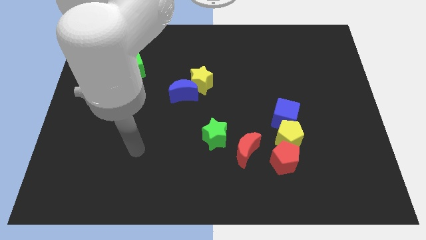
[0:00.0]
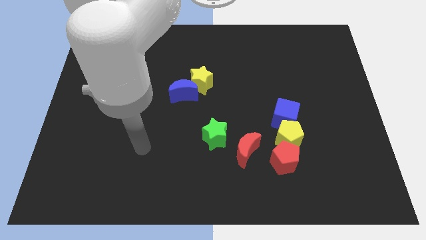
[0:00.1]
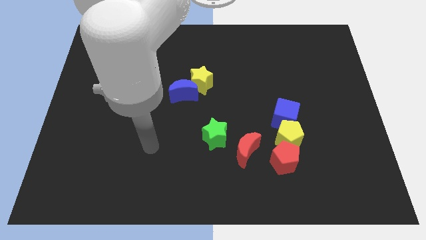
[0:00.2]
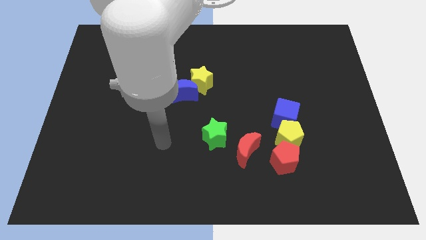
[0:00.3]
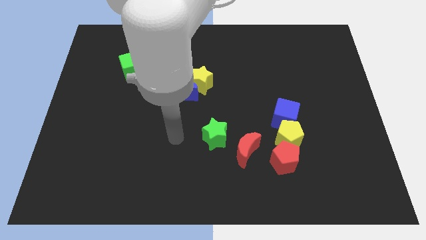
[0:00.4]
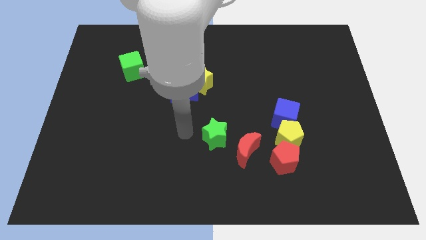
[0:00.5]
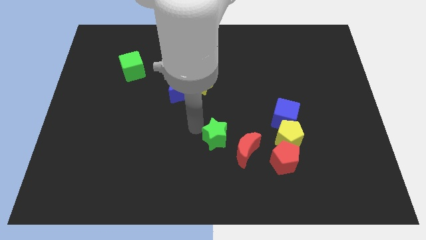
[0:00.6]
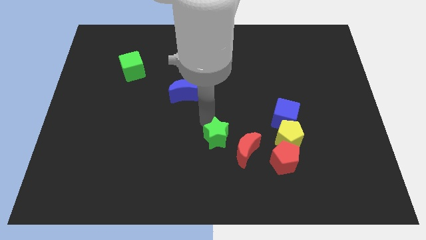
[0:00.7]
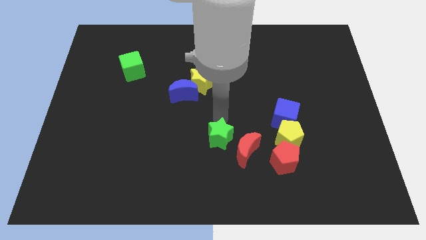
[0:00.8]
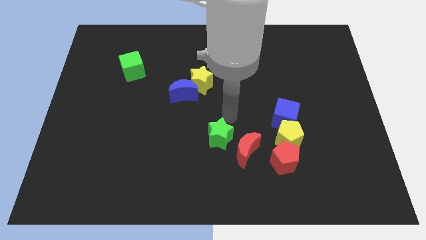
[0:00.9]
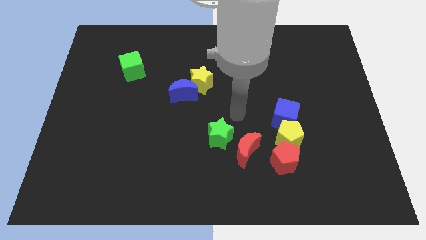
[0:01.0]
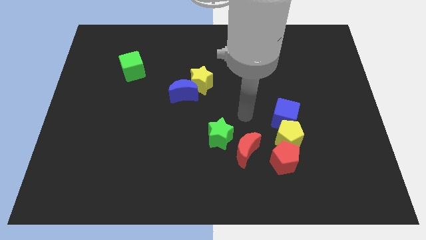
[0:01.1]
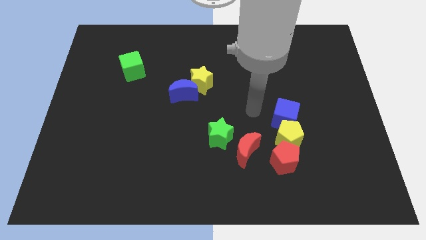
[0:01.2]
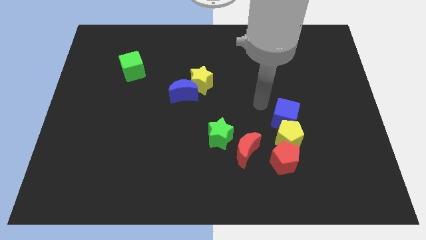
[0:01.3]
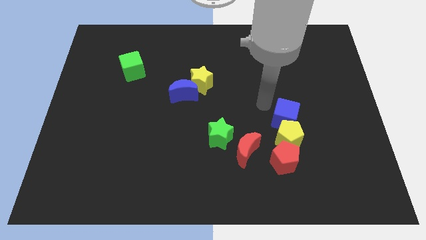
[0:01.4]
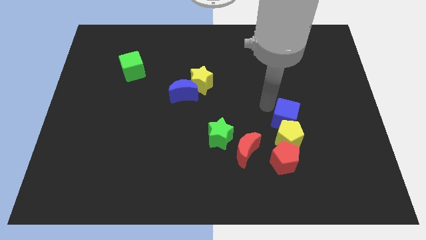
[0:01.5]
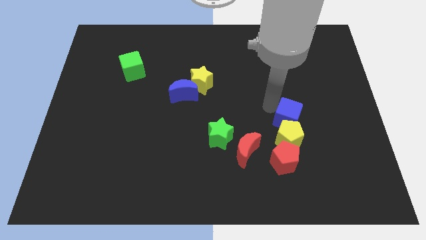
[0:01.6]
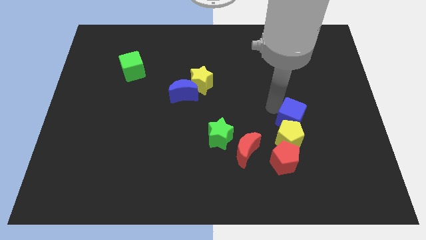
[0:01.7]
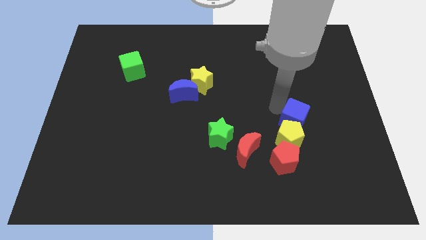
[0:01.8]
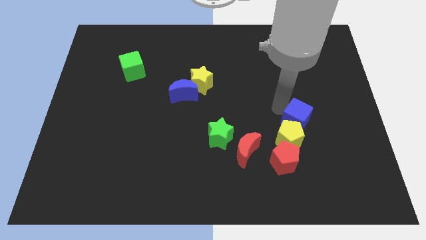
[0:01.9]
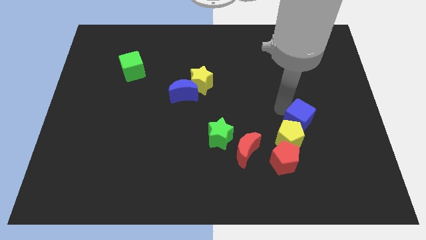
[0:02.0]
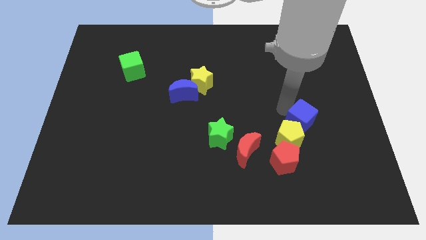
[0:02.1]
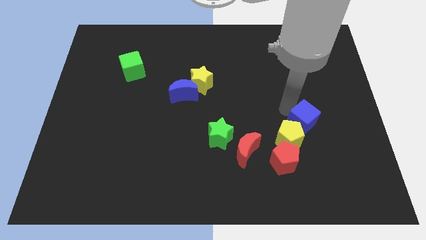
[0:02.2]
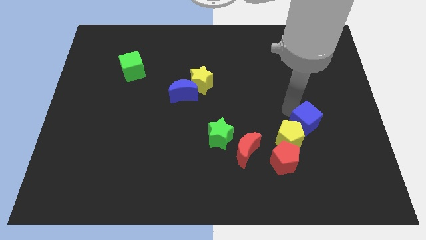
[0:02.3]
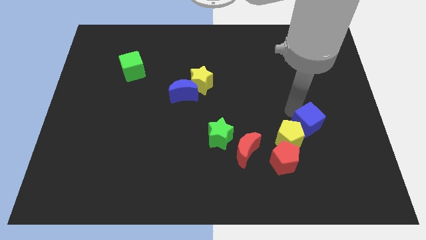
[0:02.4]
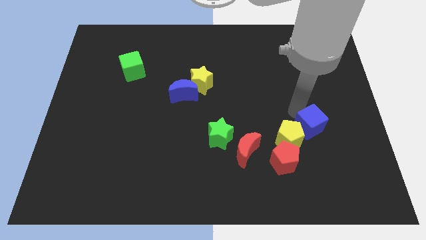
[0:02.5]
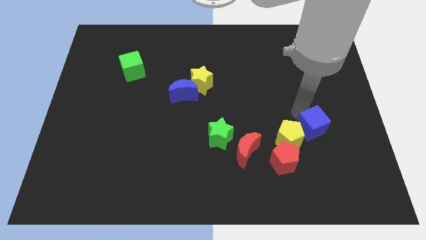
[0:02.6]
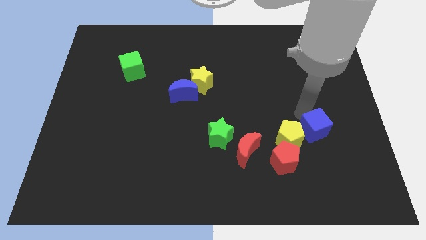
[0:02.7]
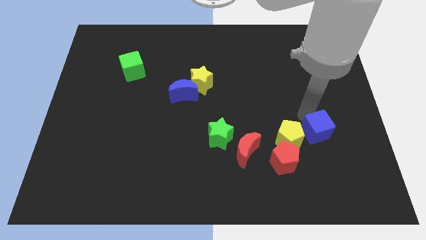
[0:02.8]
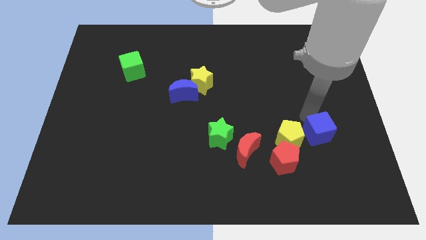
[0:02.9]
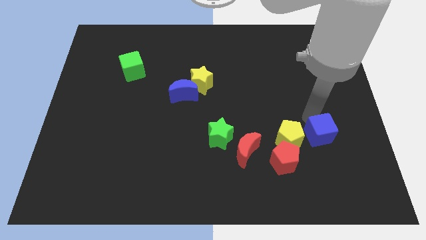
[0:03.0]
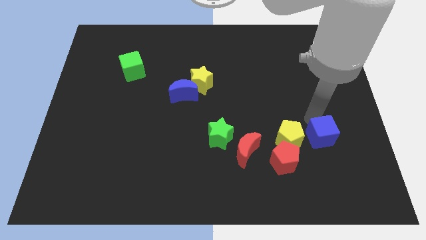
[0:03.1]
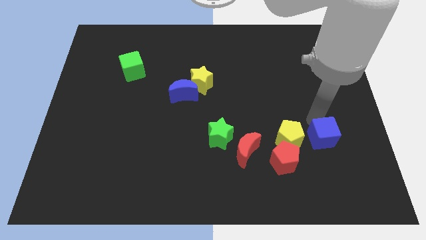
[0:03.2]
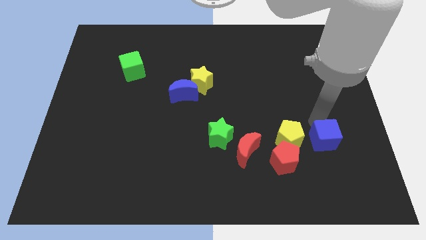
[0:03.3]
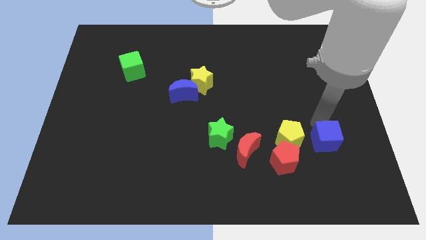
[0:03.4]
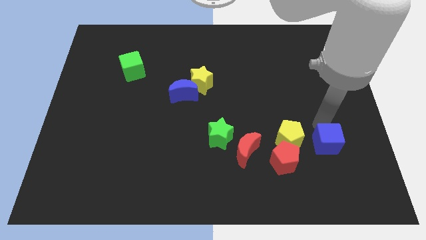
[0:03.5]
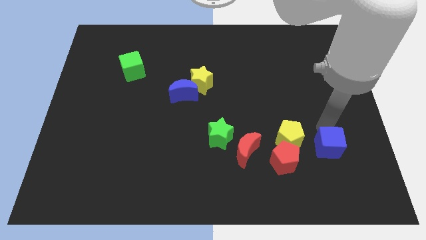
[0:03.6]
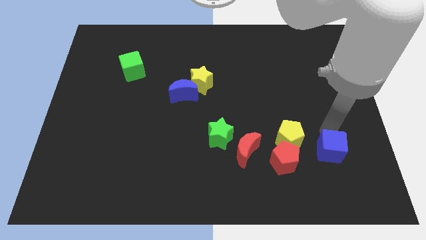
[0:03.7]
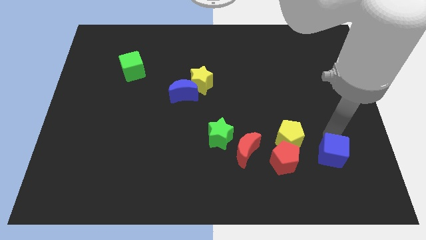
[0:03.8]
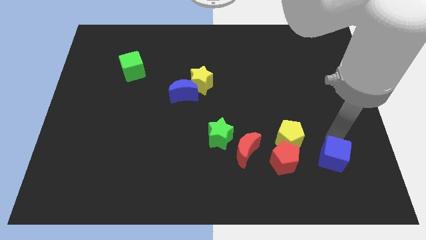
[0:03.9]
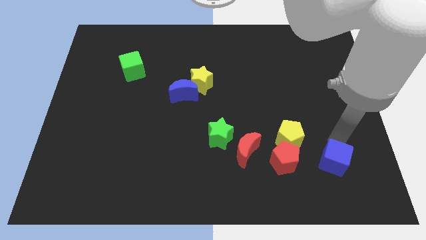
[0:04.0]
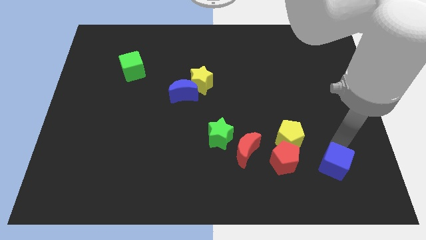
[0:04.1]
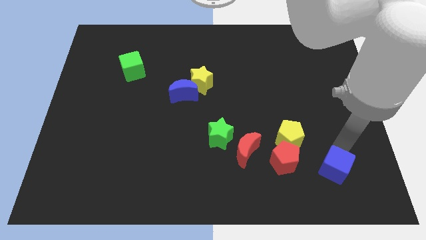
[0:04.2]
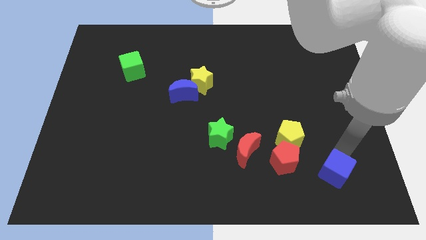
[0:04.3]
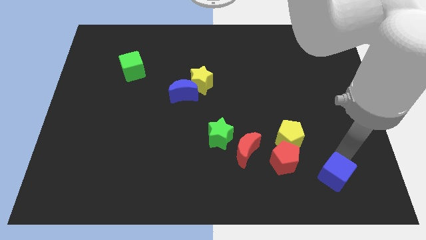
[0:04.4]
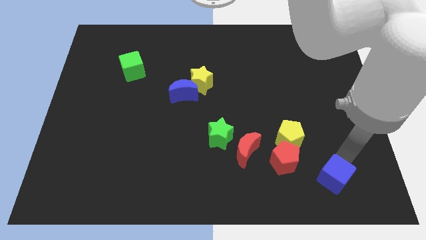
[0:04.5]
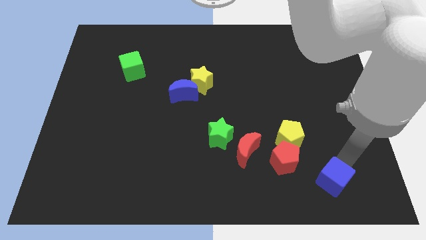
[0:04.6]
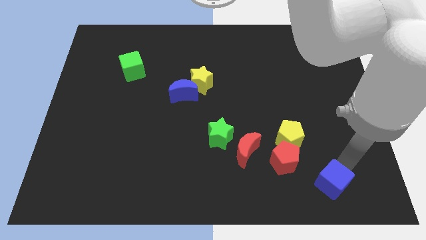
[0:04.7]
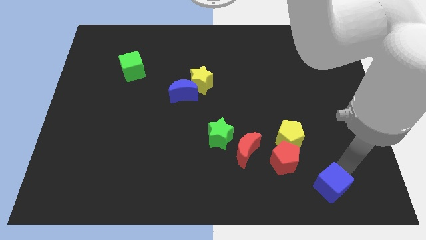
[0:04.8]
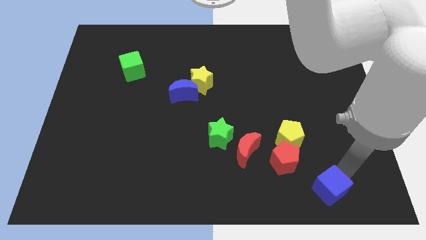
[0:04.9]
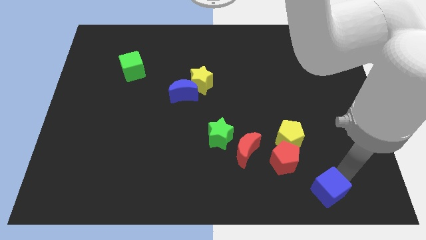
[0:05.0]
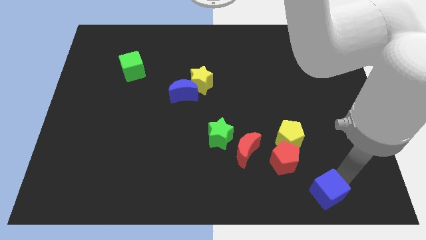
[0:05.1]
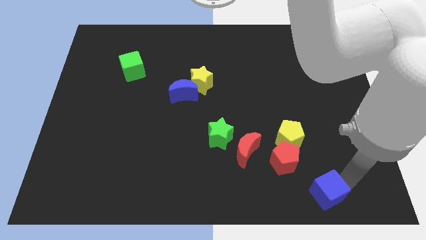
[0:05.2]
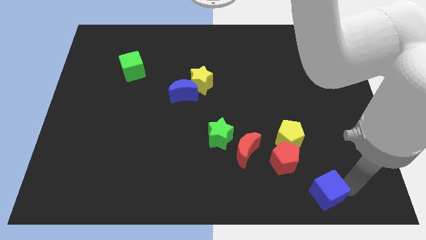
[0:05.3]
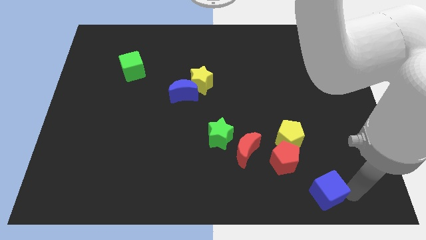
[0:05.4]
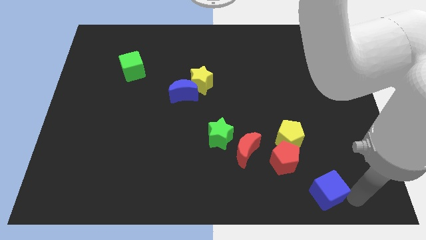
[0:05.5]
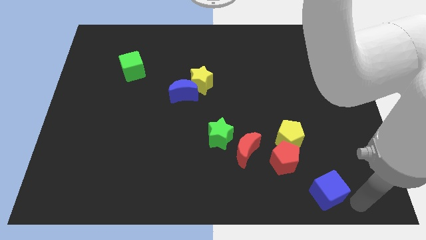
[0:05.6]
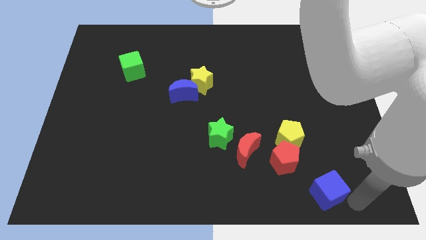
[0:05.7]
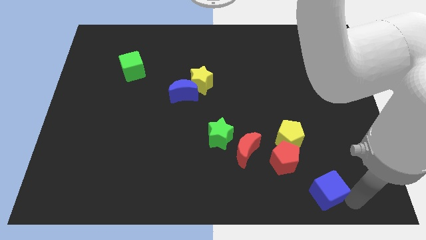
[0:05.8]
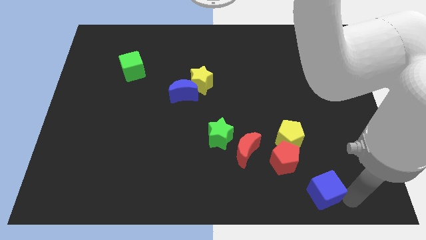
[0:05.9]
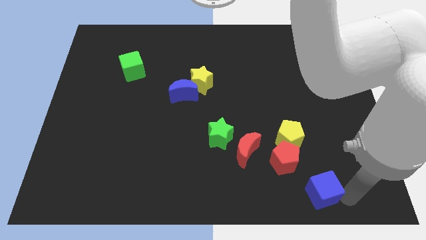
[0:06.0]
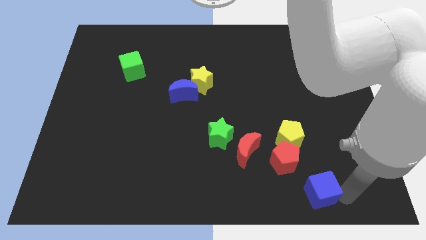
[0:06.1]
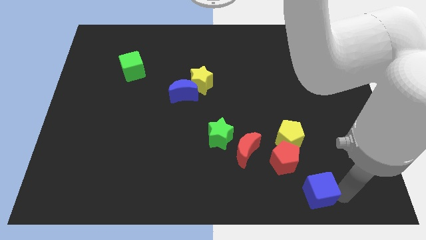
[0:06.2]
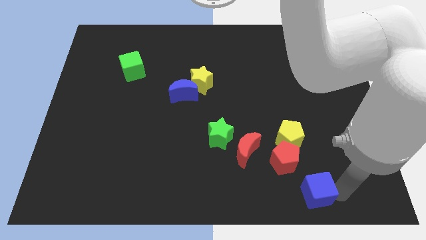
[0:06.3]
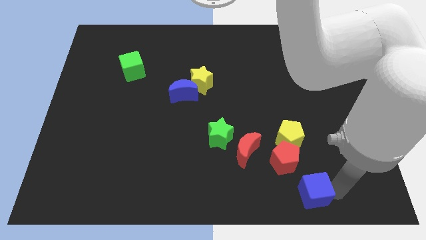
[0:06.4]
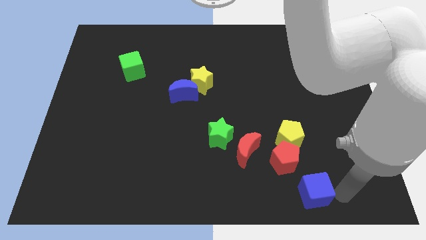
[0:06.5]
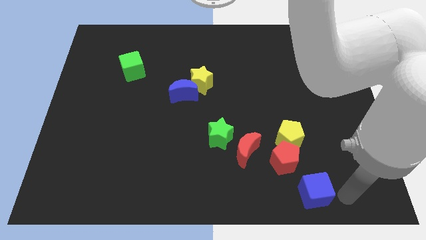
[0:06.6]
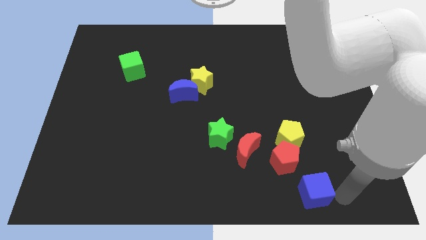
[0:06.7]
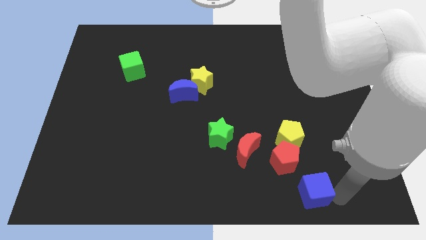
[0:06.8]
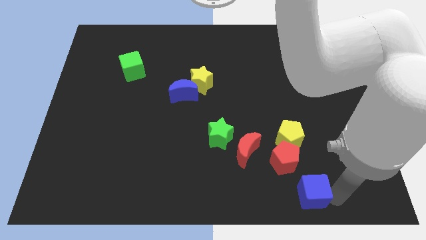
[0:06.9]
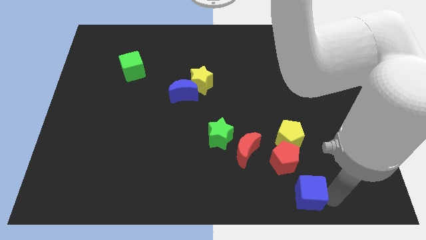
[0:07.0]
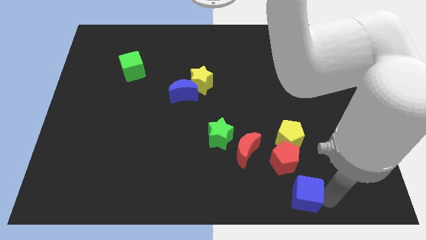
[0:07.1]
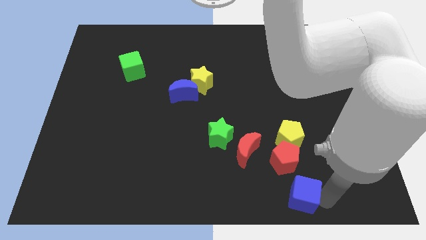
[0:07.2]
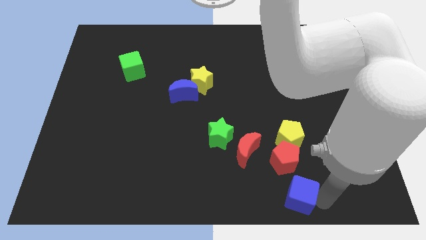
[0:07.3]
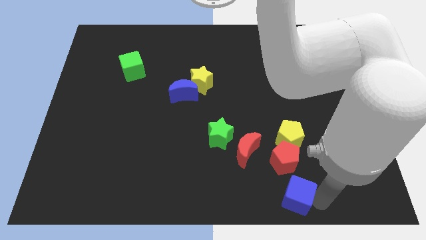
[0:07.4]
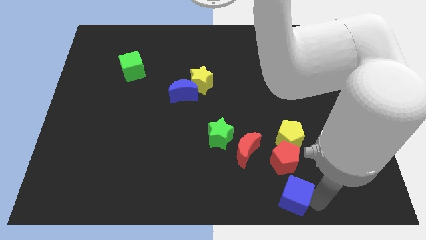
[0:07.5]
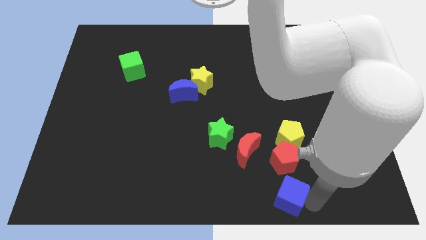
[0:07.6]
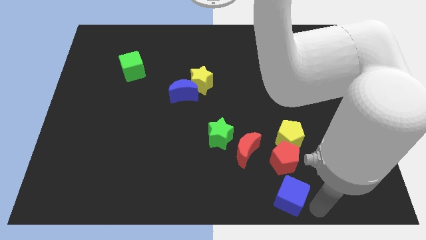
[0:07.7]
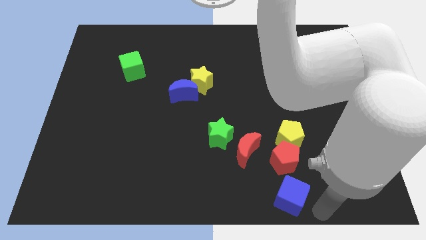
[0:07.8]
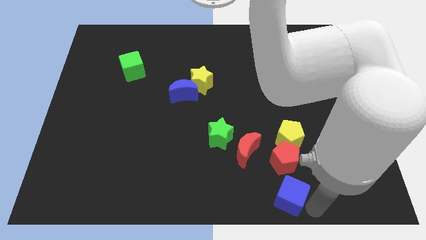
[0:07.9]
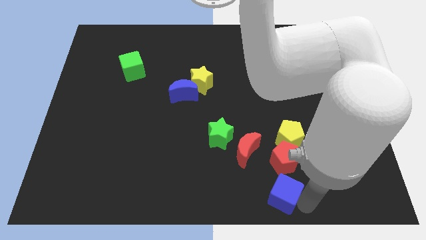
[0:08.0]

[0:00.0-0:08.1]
slide the blue cube down and to the left diagonally a little
